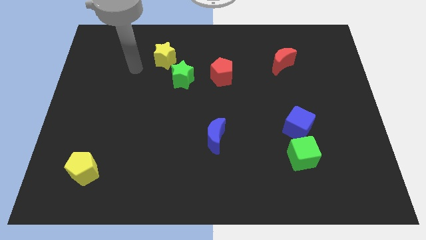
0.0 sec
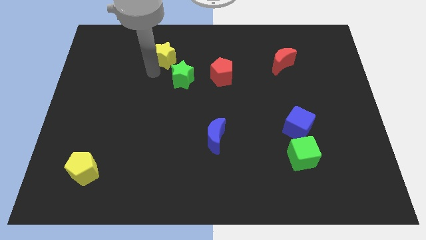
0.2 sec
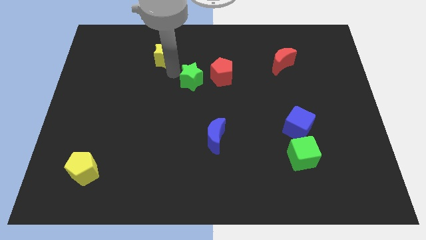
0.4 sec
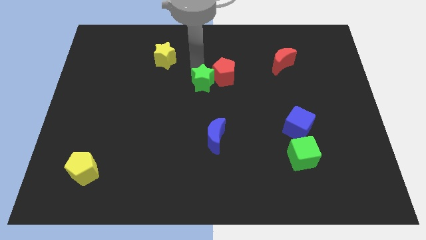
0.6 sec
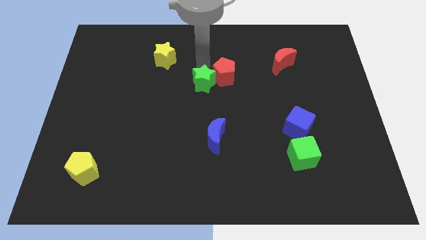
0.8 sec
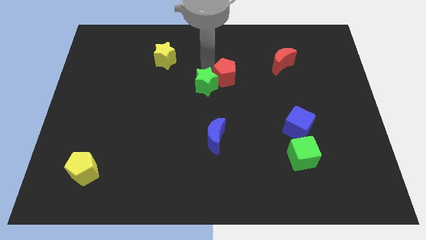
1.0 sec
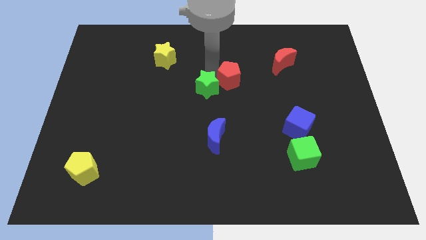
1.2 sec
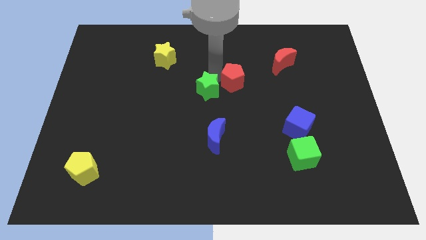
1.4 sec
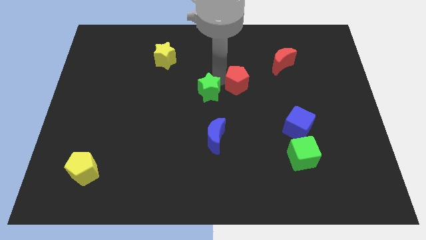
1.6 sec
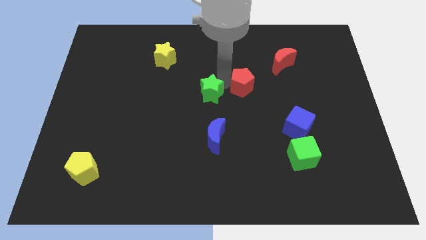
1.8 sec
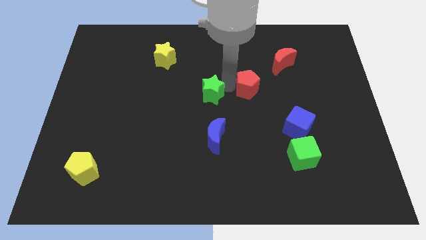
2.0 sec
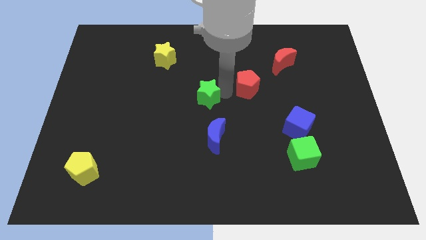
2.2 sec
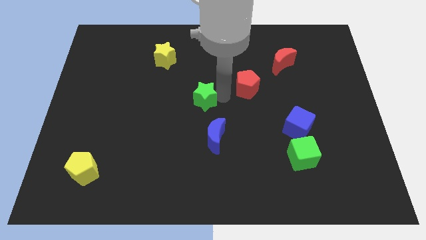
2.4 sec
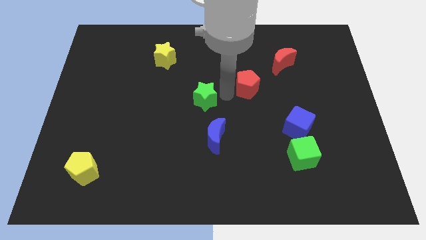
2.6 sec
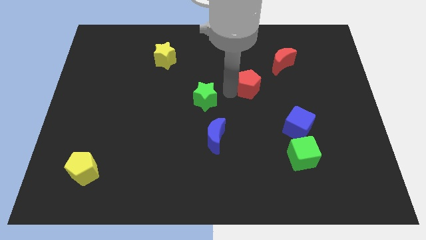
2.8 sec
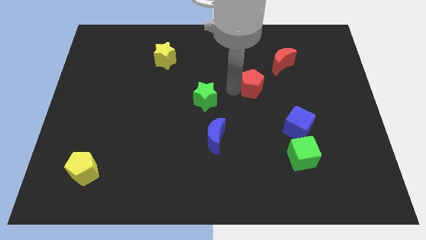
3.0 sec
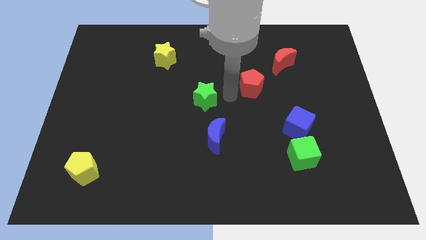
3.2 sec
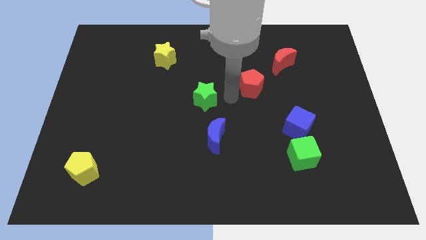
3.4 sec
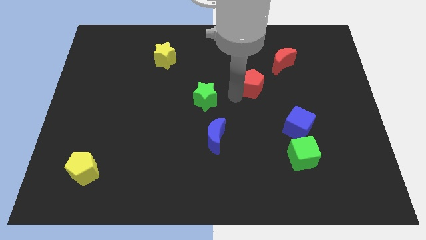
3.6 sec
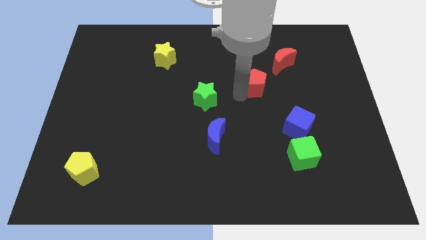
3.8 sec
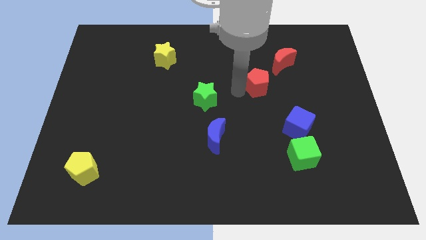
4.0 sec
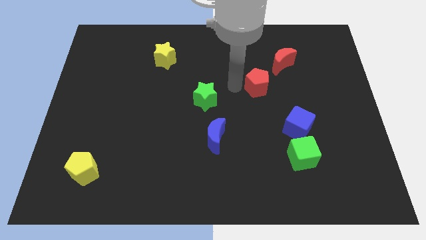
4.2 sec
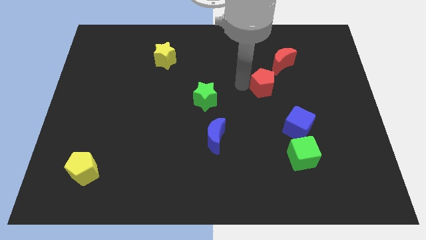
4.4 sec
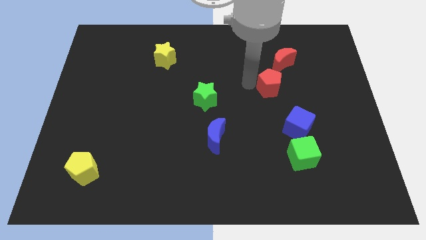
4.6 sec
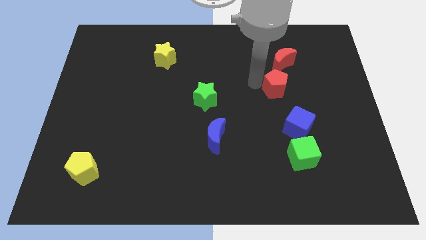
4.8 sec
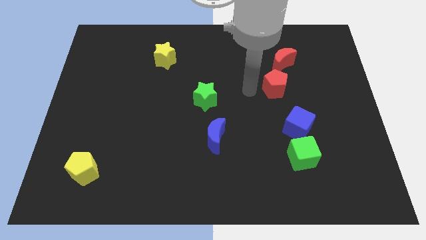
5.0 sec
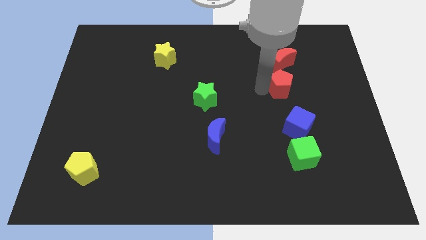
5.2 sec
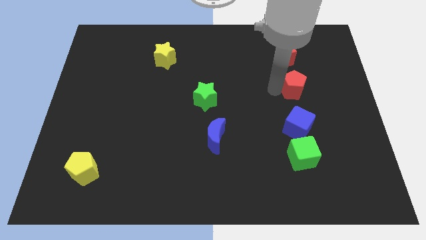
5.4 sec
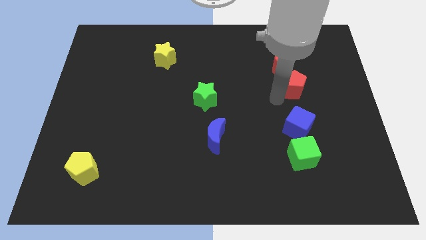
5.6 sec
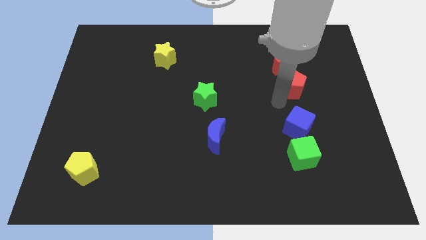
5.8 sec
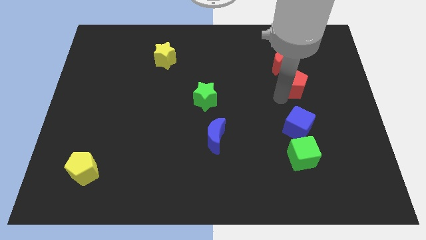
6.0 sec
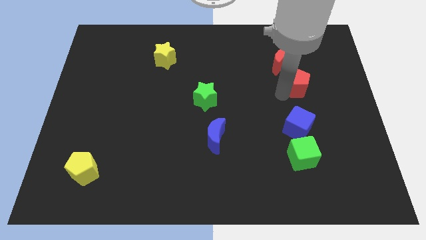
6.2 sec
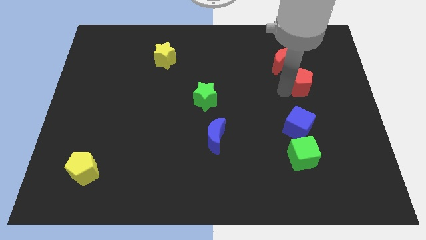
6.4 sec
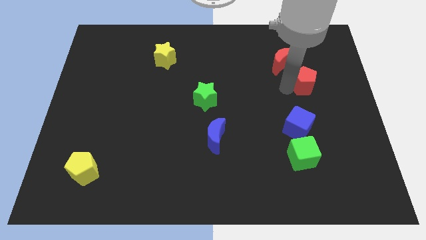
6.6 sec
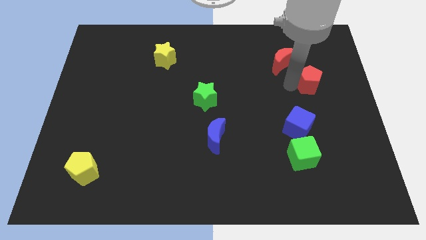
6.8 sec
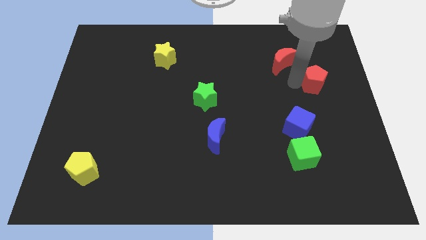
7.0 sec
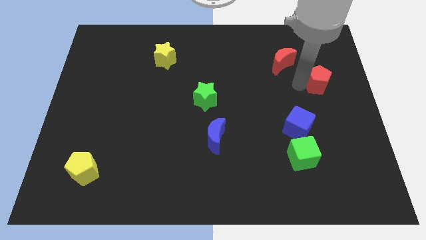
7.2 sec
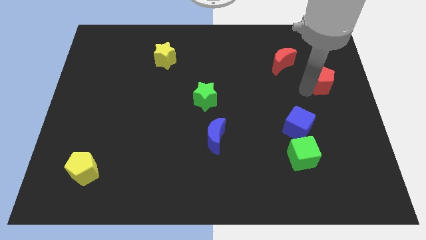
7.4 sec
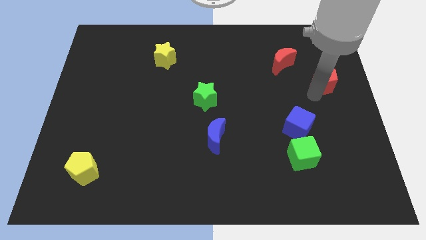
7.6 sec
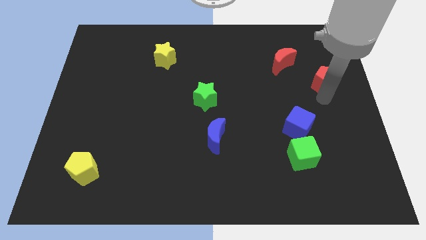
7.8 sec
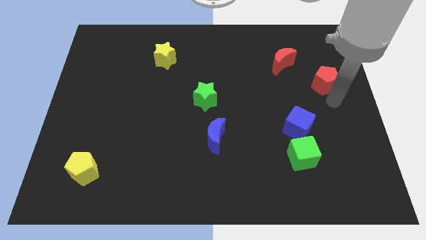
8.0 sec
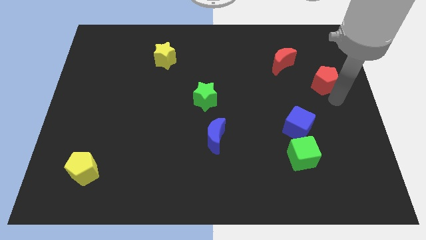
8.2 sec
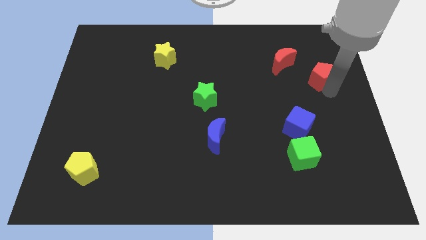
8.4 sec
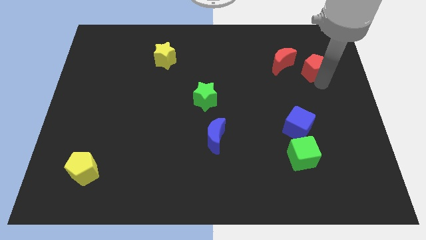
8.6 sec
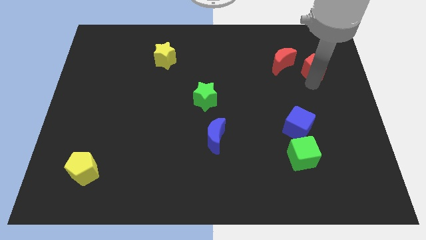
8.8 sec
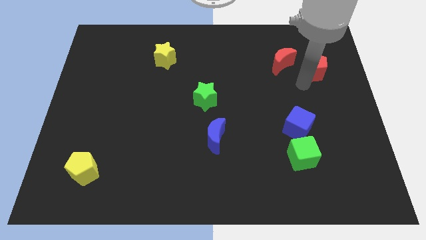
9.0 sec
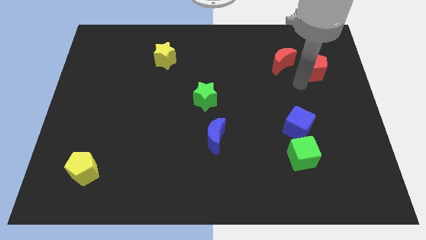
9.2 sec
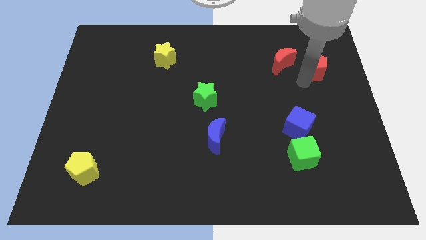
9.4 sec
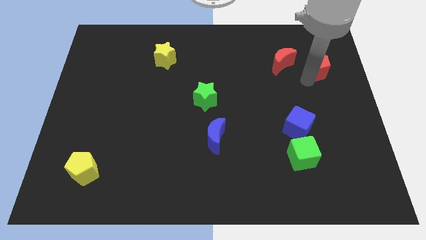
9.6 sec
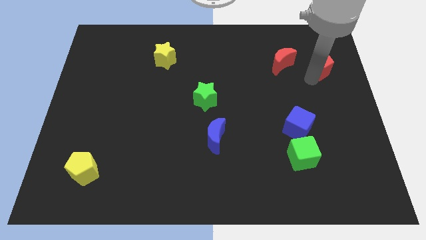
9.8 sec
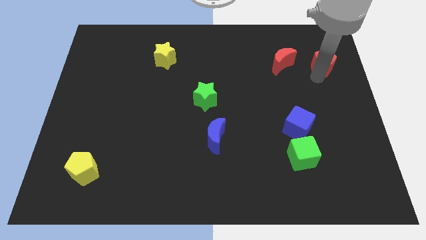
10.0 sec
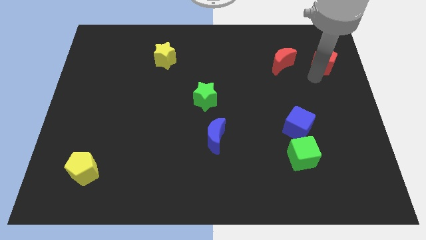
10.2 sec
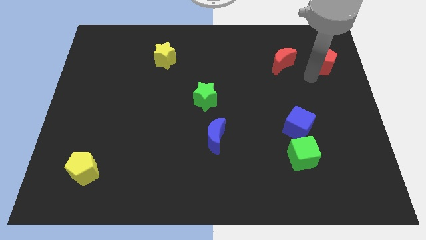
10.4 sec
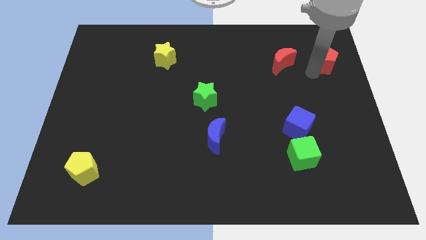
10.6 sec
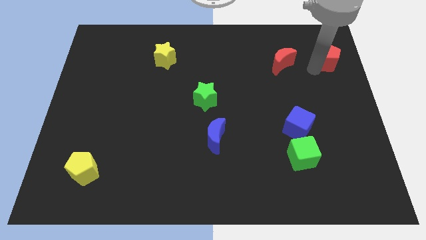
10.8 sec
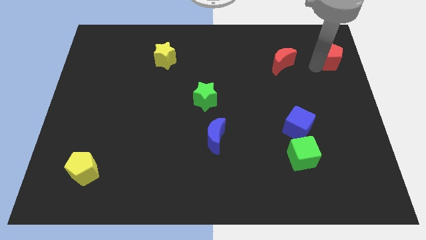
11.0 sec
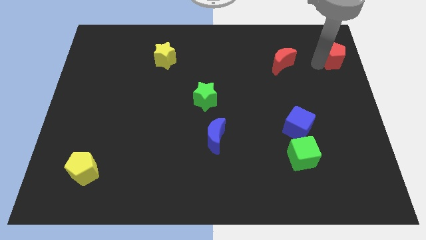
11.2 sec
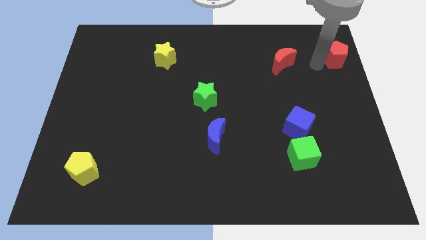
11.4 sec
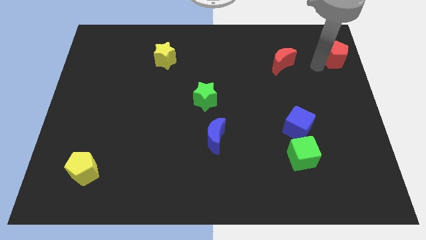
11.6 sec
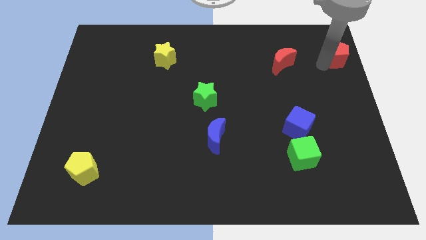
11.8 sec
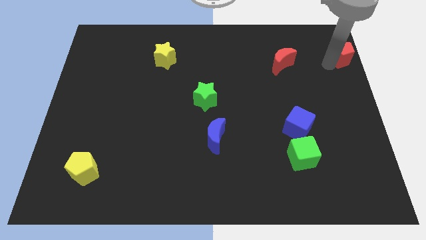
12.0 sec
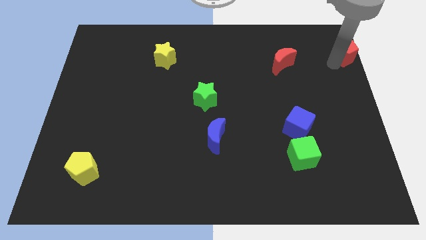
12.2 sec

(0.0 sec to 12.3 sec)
slide the red pentagon to the top right of the board
